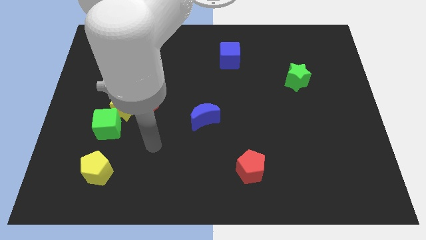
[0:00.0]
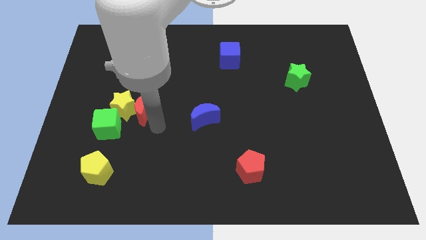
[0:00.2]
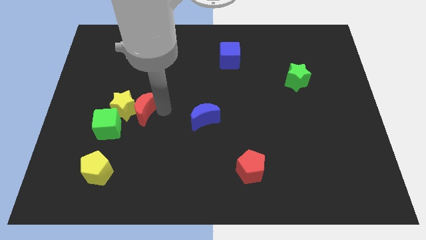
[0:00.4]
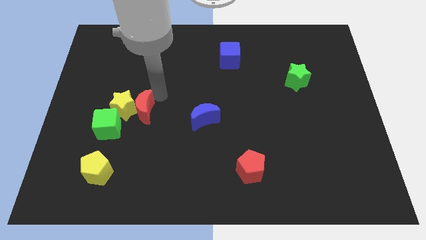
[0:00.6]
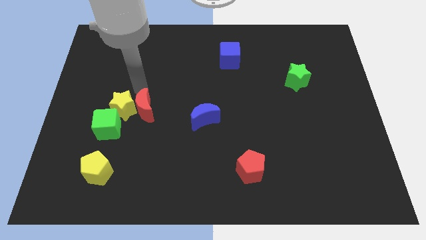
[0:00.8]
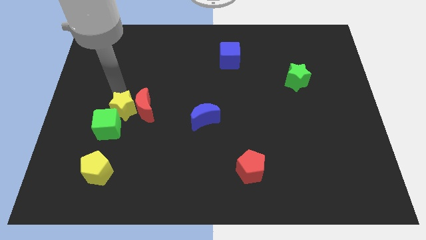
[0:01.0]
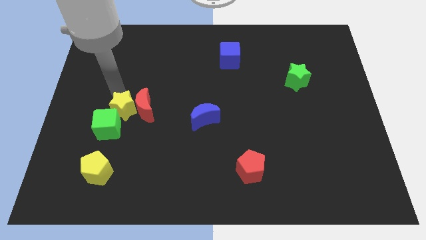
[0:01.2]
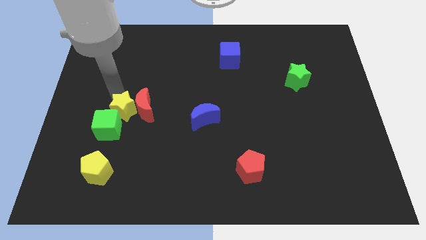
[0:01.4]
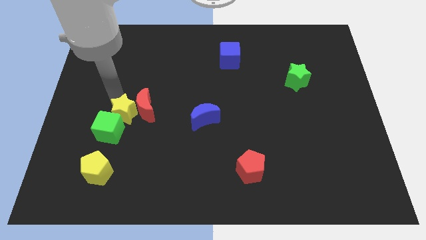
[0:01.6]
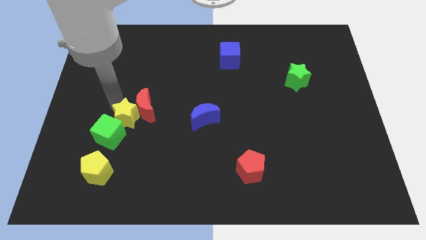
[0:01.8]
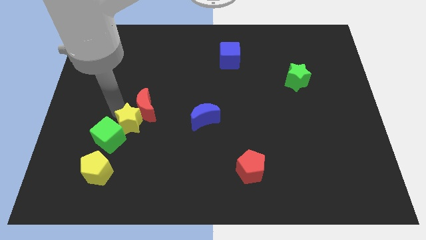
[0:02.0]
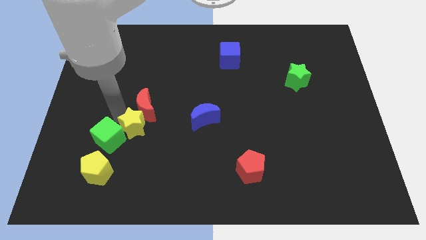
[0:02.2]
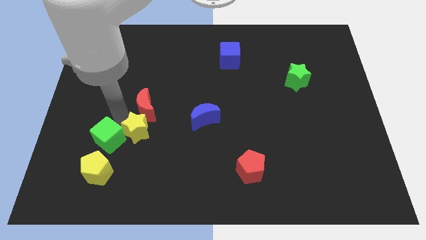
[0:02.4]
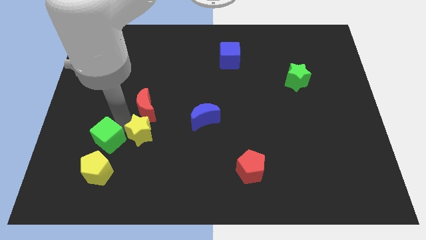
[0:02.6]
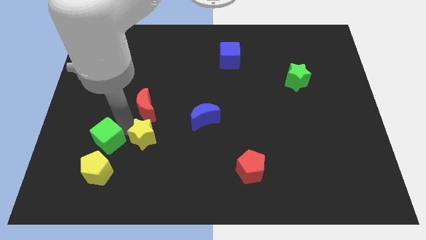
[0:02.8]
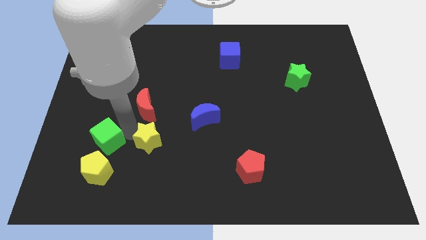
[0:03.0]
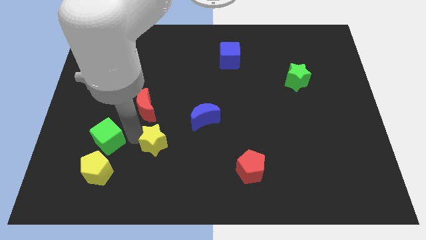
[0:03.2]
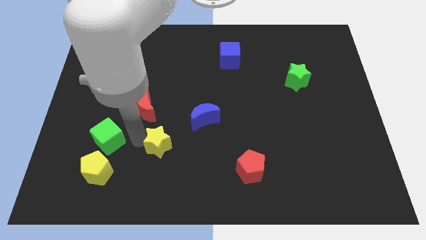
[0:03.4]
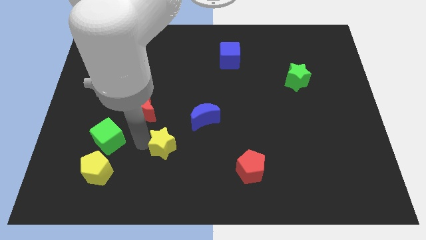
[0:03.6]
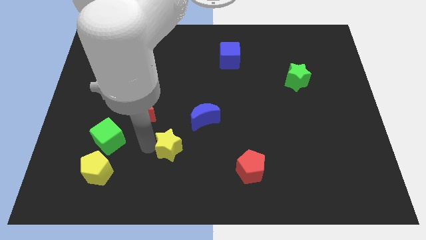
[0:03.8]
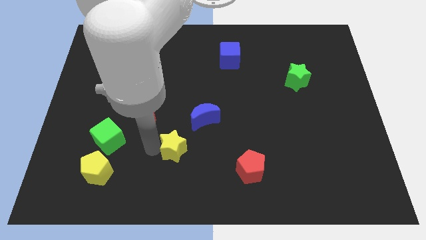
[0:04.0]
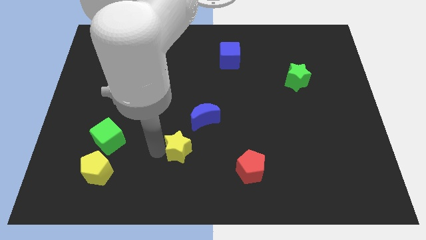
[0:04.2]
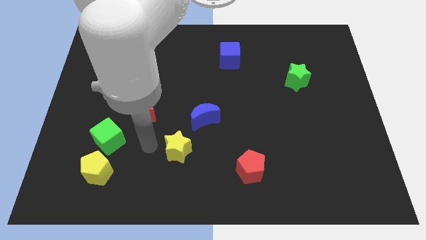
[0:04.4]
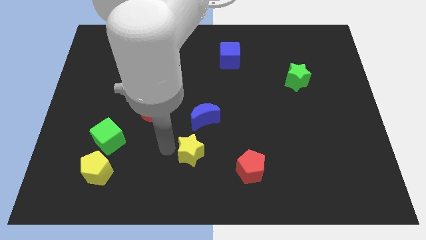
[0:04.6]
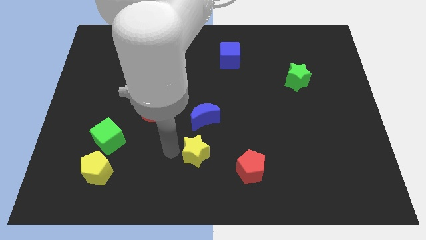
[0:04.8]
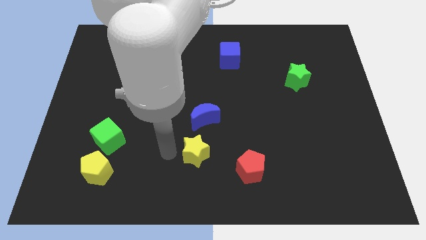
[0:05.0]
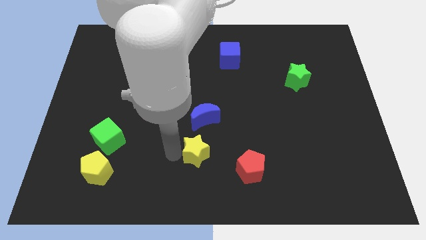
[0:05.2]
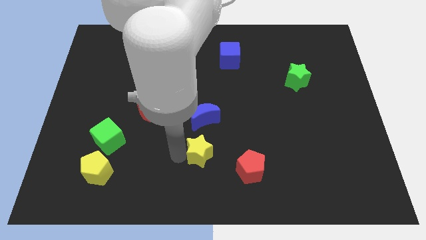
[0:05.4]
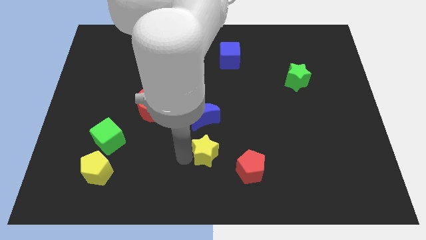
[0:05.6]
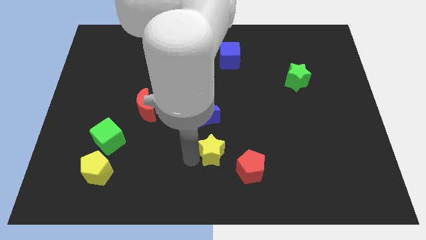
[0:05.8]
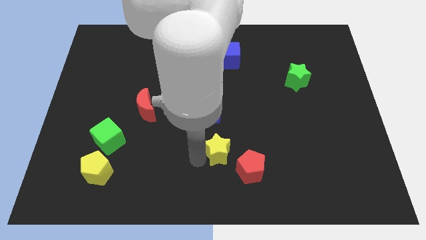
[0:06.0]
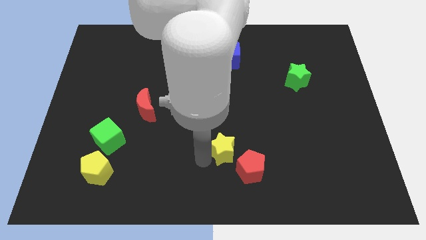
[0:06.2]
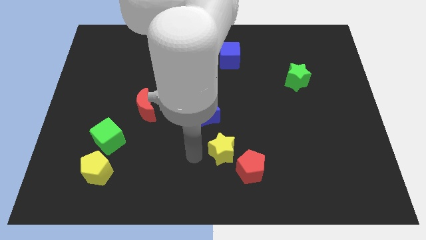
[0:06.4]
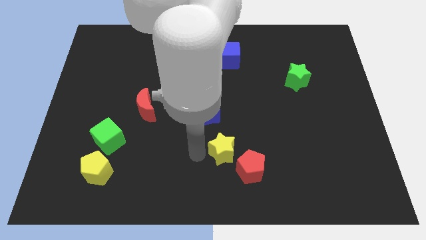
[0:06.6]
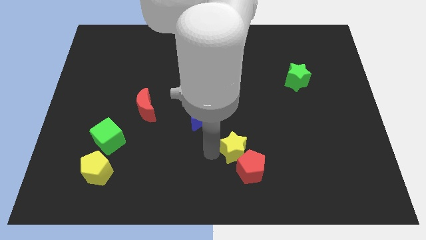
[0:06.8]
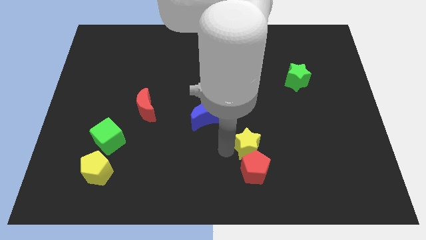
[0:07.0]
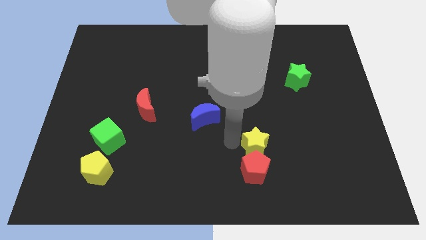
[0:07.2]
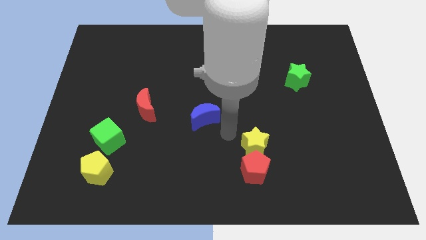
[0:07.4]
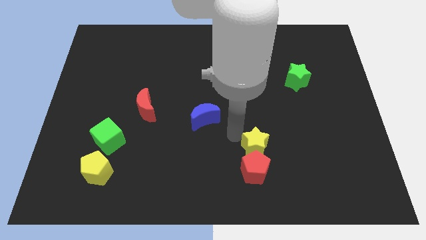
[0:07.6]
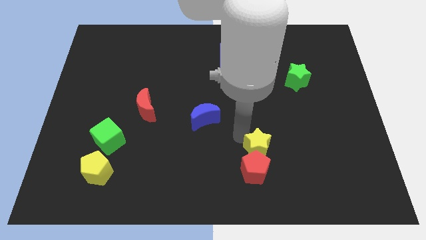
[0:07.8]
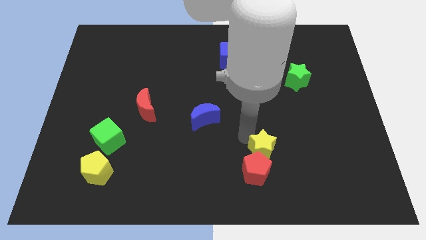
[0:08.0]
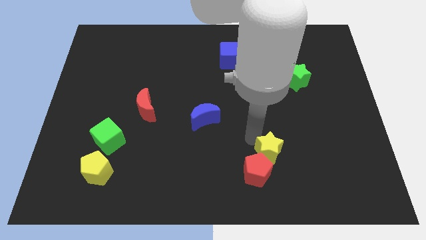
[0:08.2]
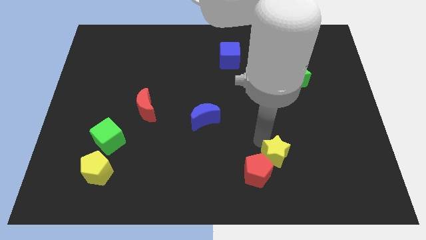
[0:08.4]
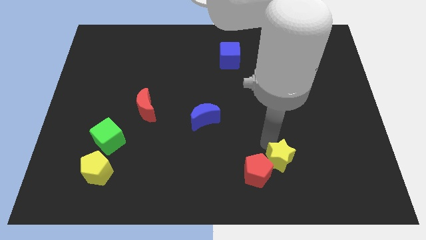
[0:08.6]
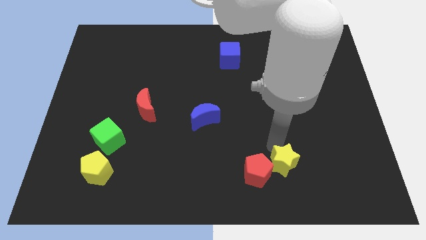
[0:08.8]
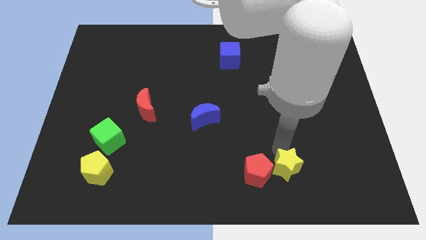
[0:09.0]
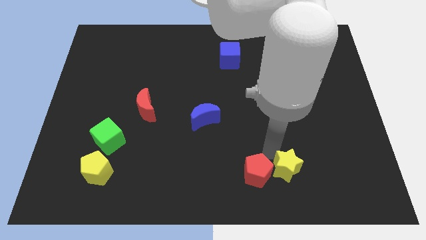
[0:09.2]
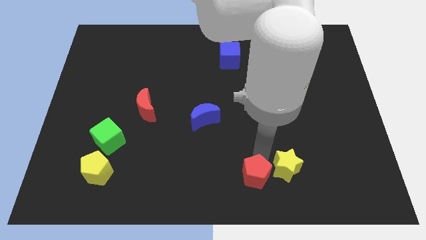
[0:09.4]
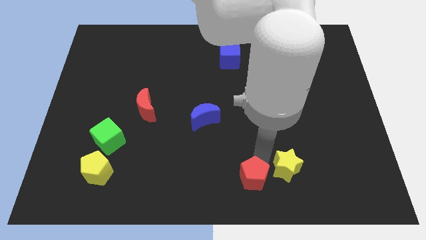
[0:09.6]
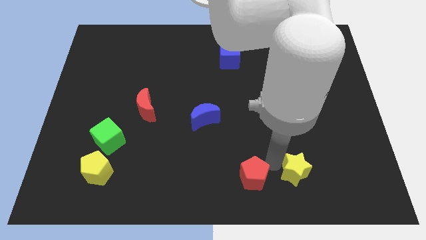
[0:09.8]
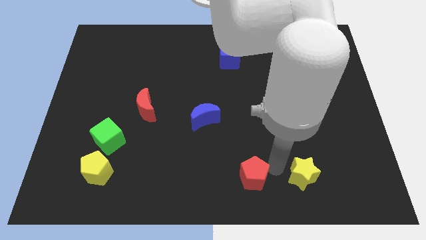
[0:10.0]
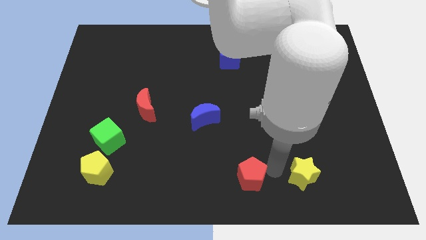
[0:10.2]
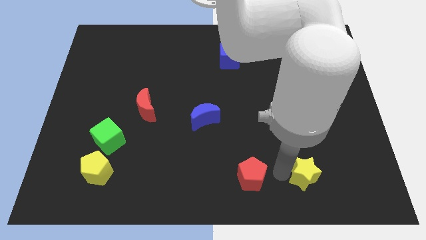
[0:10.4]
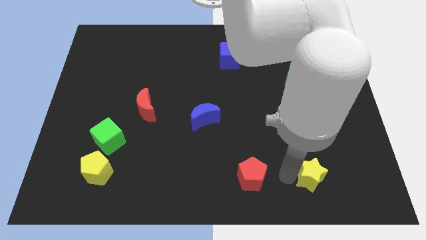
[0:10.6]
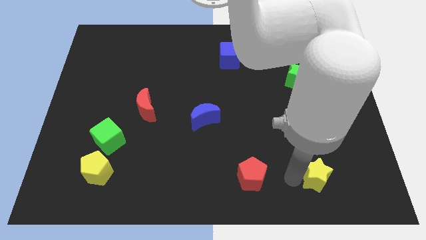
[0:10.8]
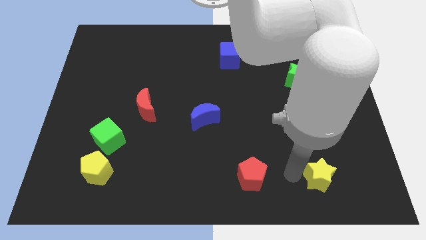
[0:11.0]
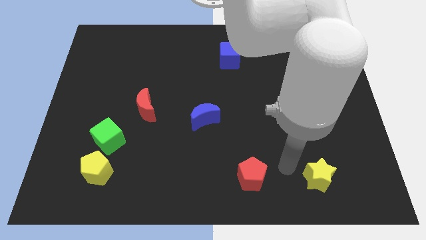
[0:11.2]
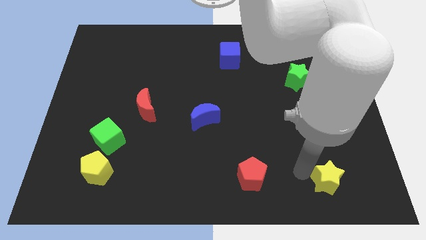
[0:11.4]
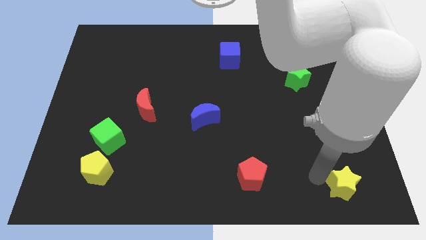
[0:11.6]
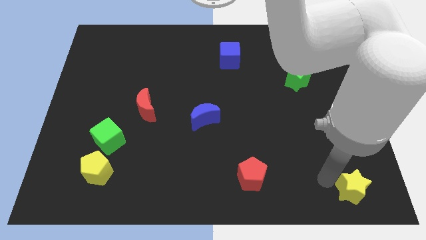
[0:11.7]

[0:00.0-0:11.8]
put the yellow star to the bottom right

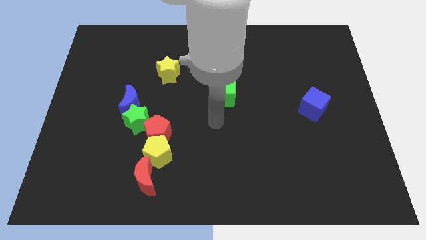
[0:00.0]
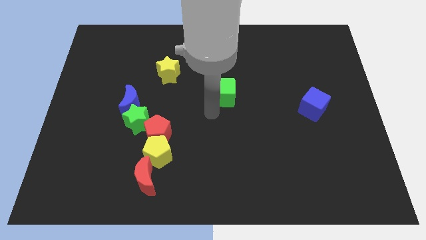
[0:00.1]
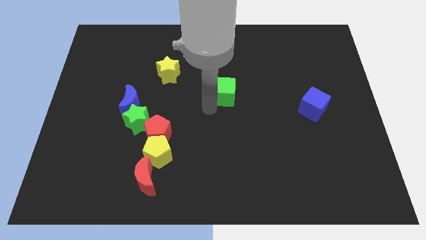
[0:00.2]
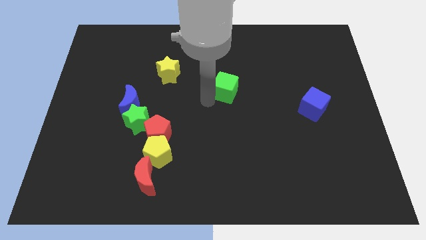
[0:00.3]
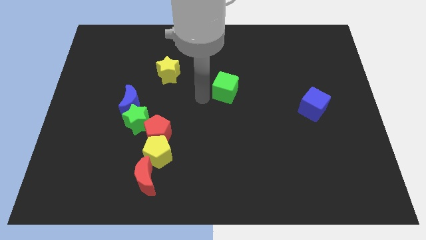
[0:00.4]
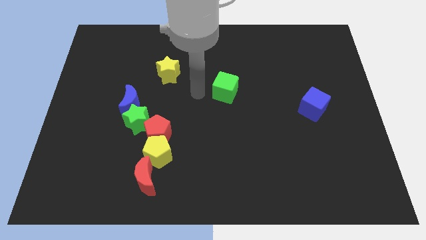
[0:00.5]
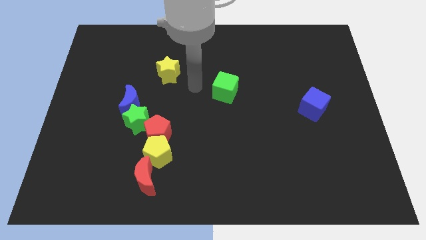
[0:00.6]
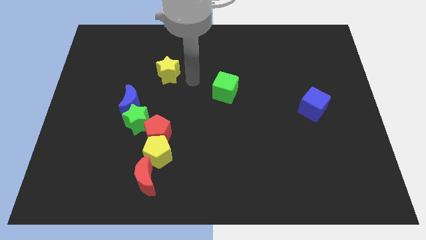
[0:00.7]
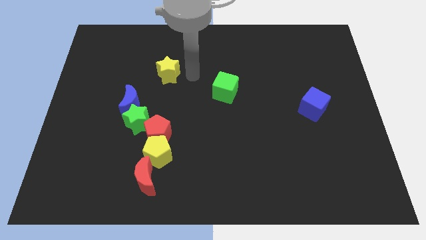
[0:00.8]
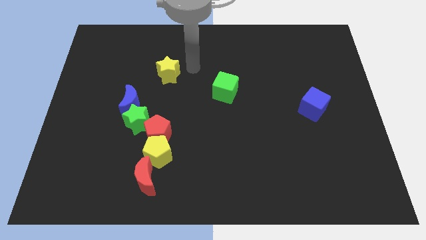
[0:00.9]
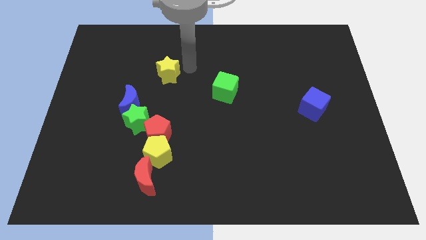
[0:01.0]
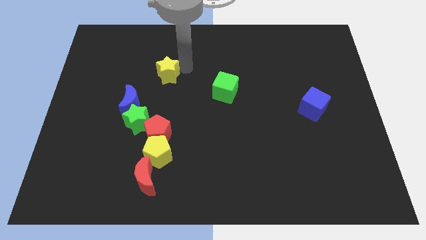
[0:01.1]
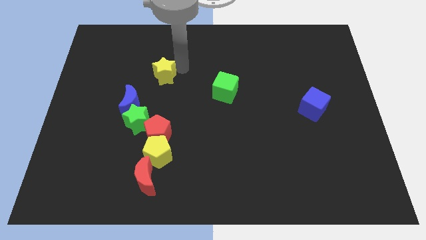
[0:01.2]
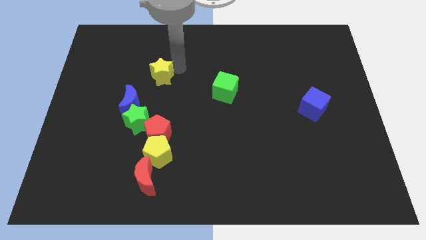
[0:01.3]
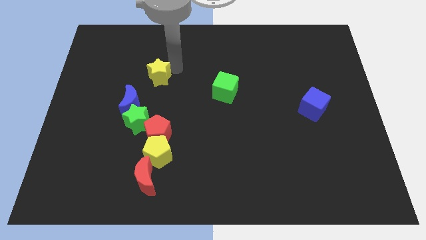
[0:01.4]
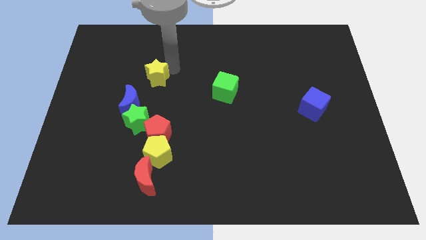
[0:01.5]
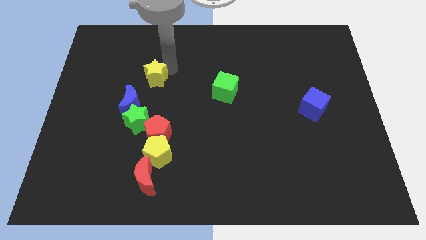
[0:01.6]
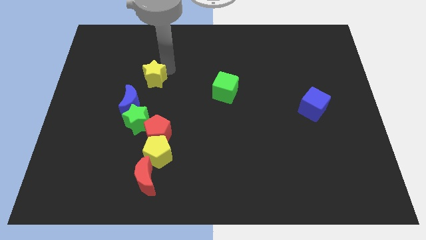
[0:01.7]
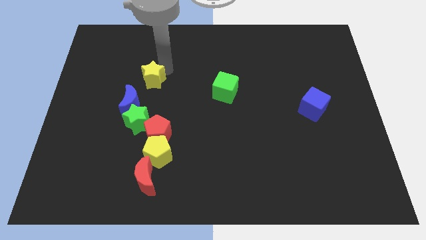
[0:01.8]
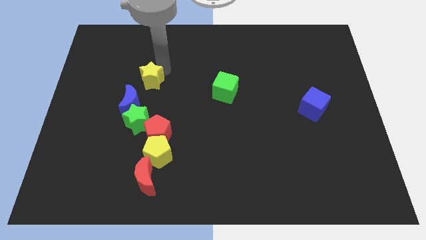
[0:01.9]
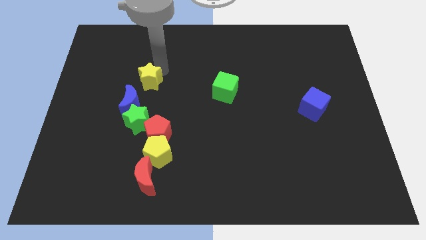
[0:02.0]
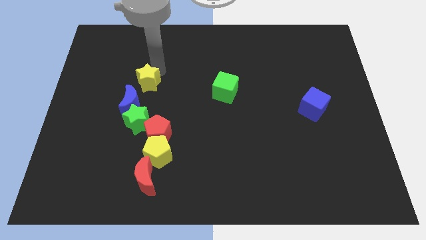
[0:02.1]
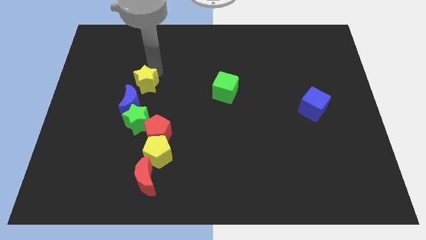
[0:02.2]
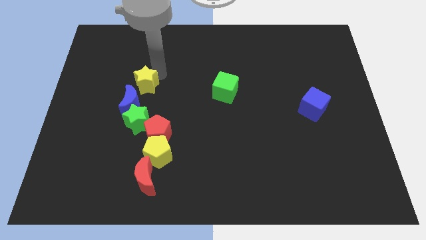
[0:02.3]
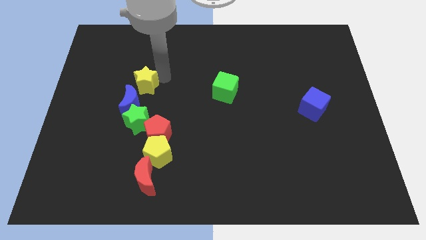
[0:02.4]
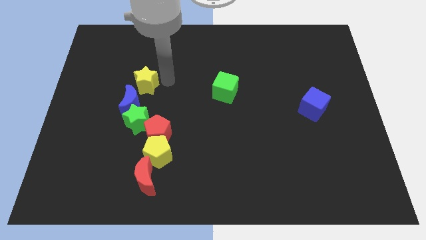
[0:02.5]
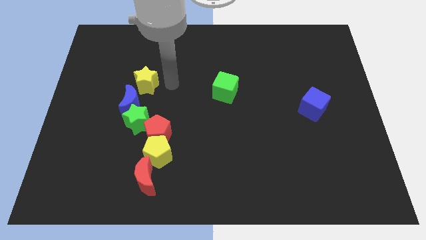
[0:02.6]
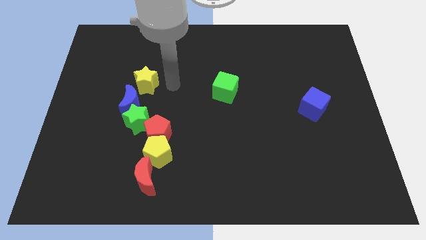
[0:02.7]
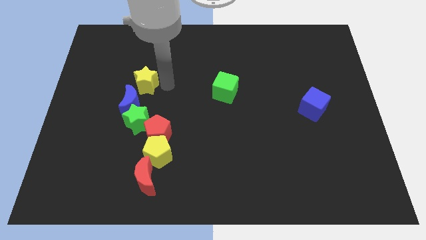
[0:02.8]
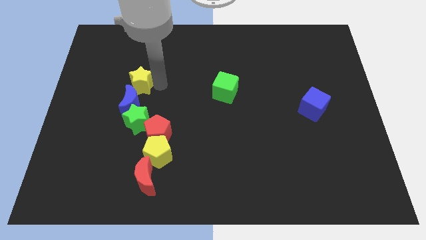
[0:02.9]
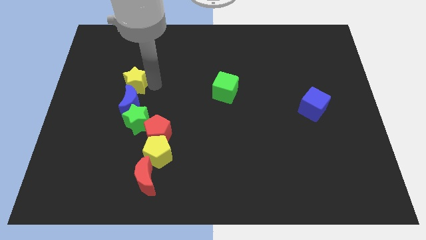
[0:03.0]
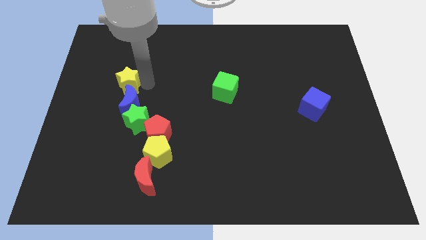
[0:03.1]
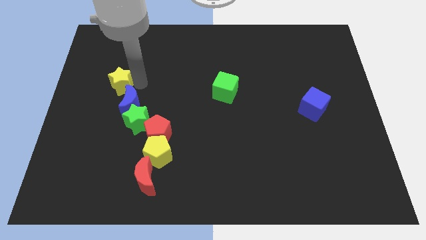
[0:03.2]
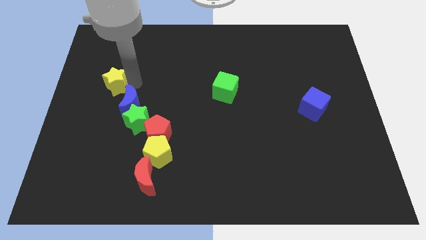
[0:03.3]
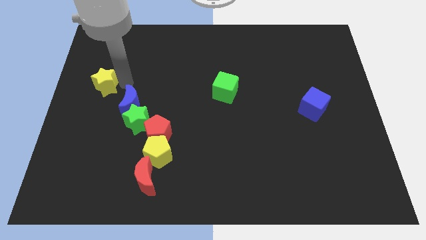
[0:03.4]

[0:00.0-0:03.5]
slide the yellow star to the left side
